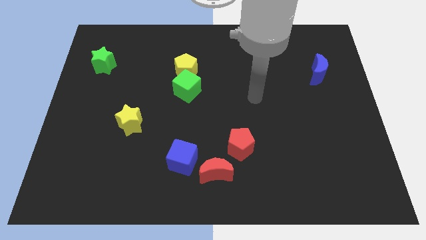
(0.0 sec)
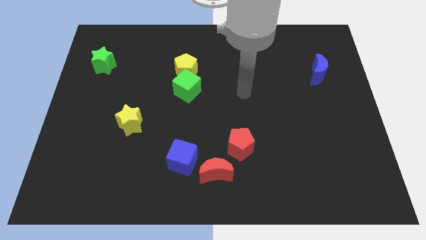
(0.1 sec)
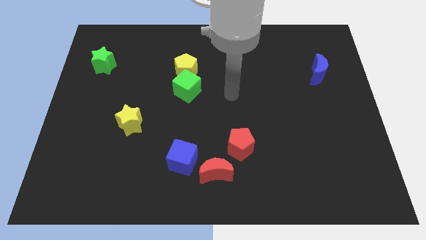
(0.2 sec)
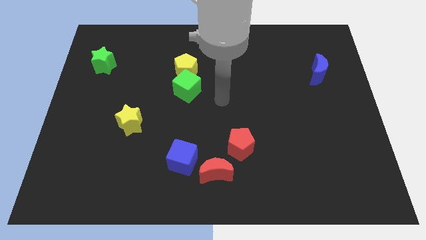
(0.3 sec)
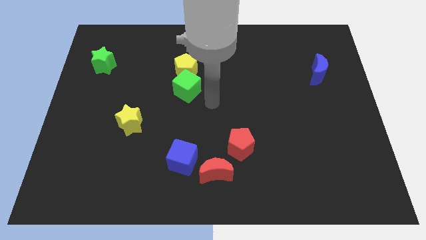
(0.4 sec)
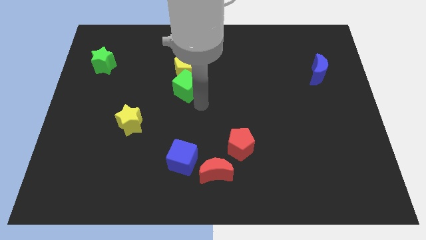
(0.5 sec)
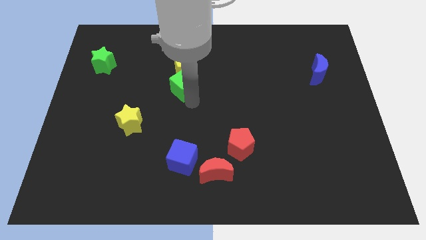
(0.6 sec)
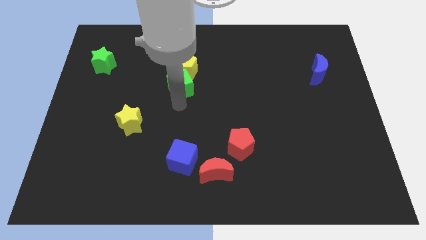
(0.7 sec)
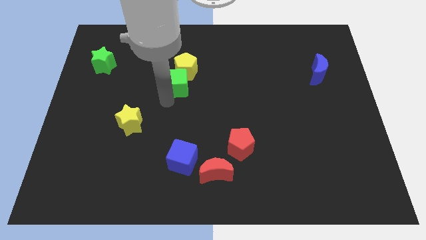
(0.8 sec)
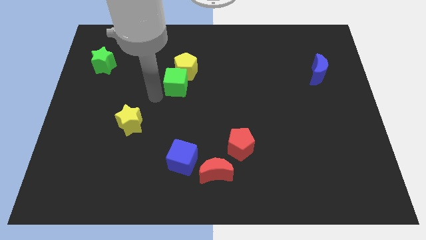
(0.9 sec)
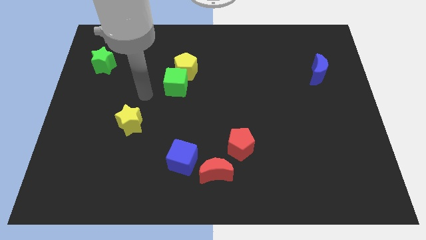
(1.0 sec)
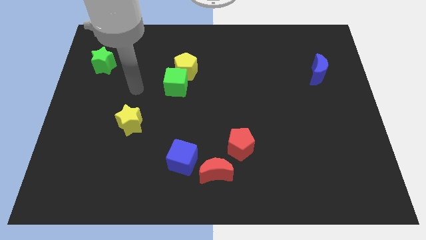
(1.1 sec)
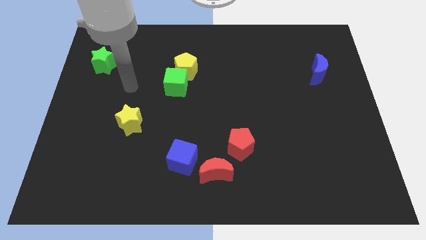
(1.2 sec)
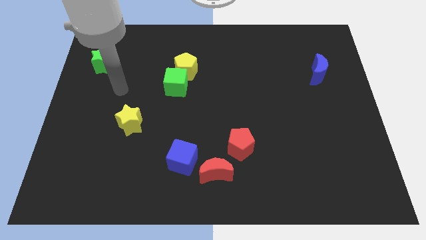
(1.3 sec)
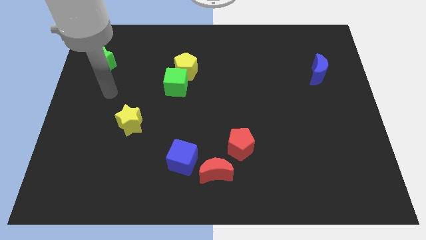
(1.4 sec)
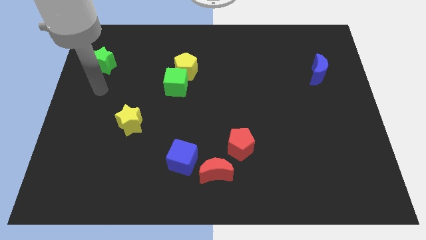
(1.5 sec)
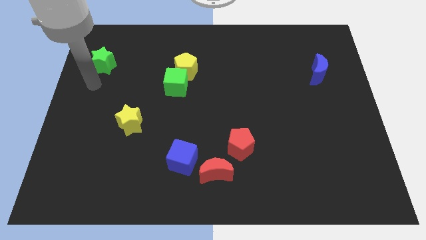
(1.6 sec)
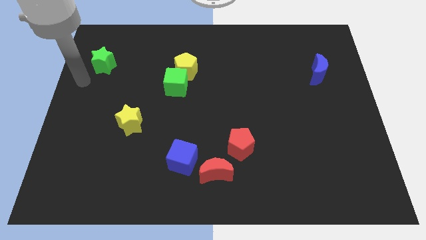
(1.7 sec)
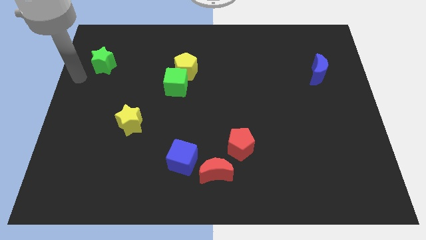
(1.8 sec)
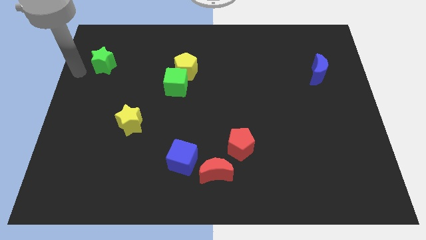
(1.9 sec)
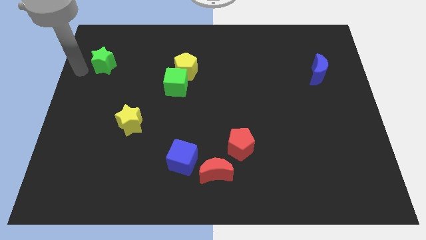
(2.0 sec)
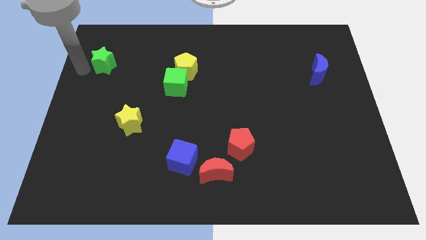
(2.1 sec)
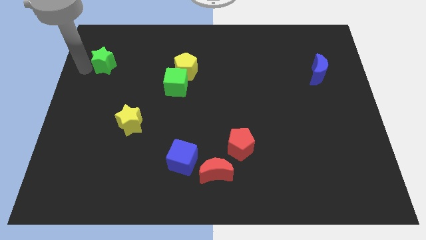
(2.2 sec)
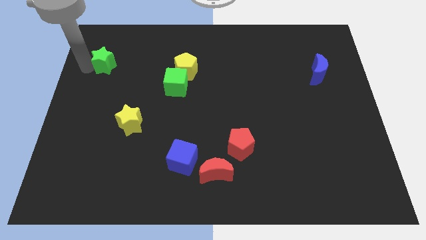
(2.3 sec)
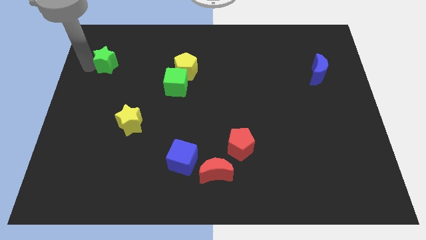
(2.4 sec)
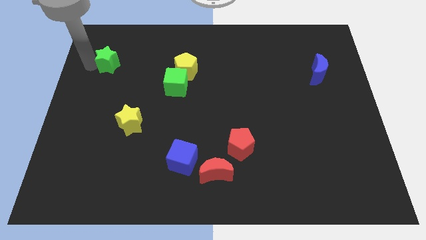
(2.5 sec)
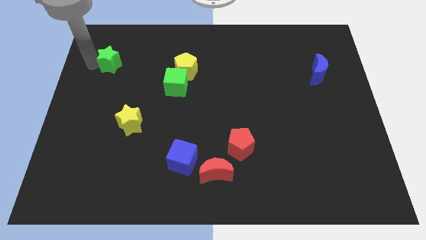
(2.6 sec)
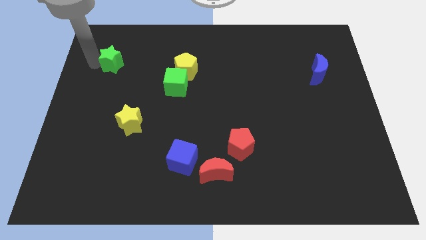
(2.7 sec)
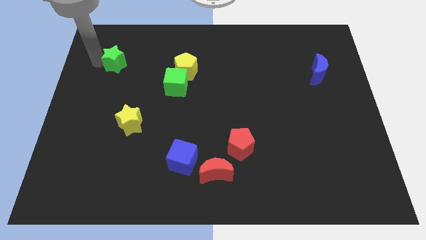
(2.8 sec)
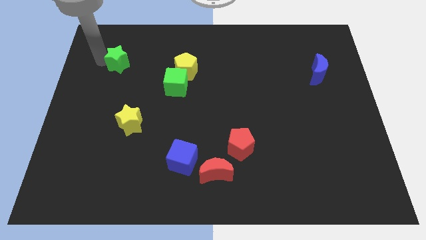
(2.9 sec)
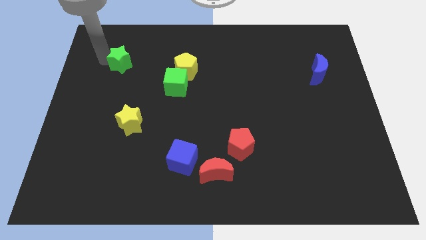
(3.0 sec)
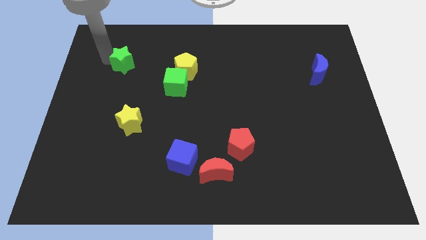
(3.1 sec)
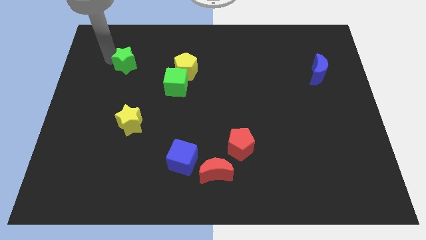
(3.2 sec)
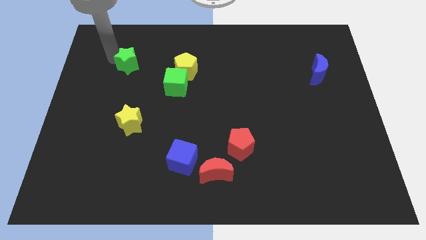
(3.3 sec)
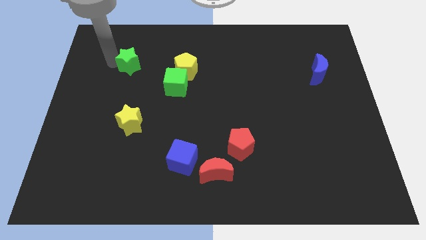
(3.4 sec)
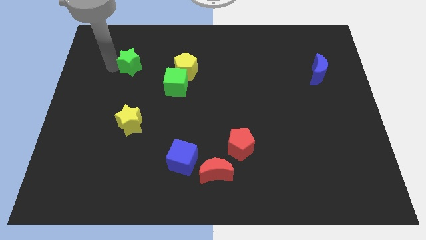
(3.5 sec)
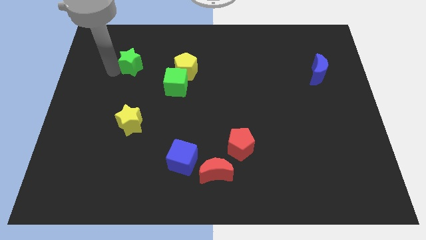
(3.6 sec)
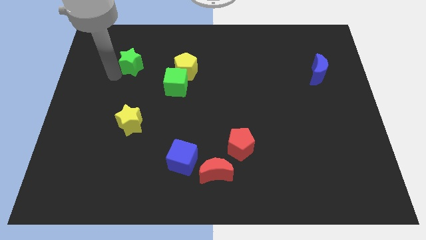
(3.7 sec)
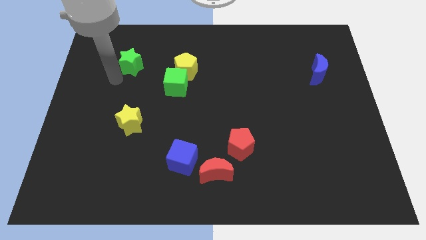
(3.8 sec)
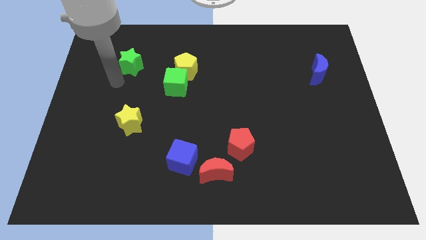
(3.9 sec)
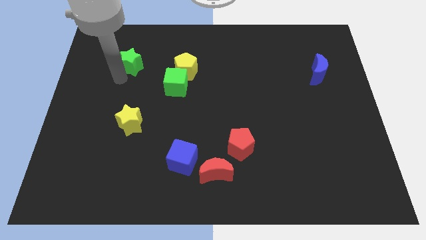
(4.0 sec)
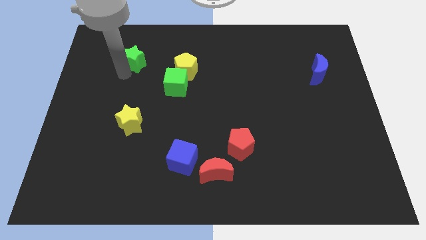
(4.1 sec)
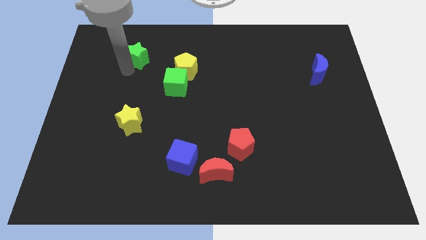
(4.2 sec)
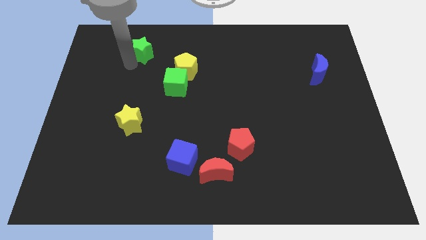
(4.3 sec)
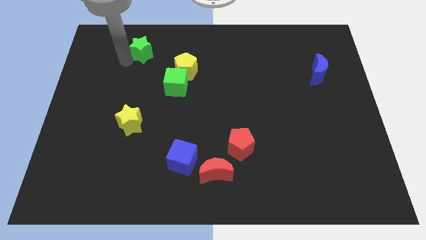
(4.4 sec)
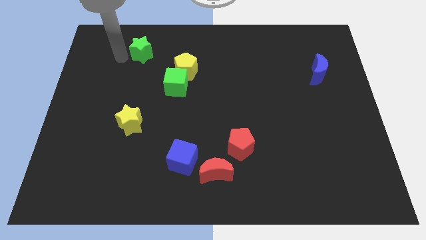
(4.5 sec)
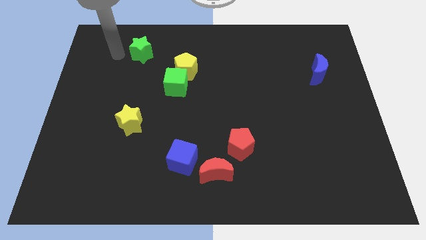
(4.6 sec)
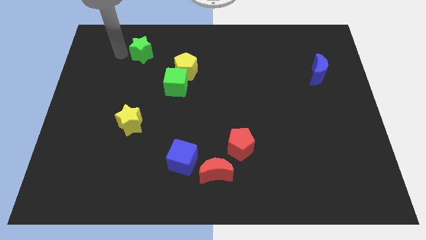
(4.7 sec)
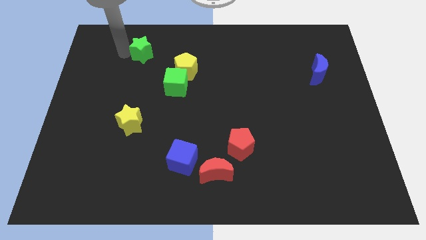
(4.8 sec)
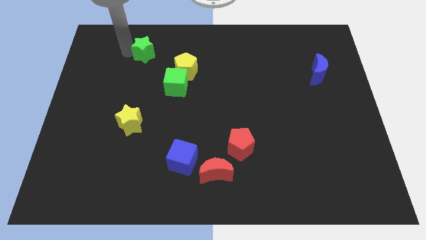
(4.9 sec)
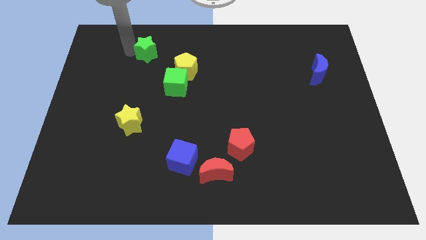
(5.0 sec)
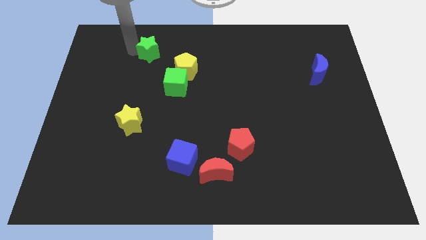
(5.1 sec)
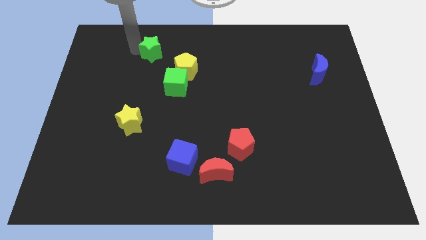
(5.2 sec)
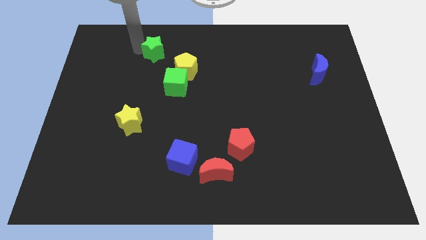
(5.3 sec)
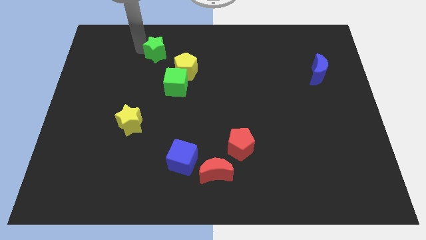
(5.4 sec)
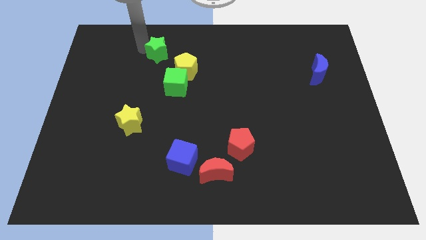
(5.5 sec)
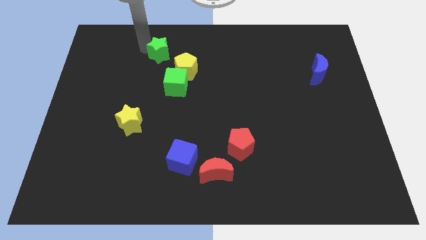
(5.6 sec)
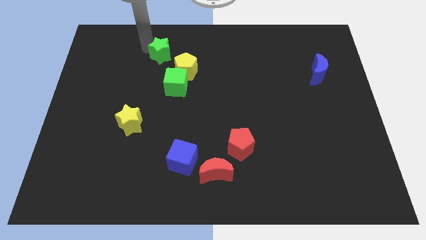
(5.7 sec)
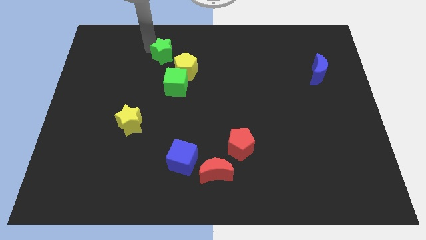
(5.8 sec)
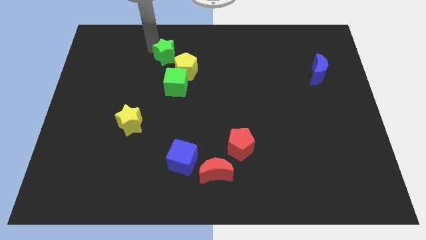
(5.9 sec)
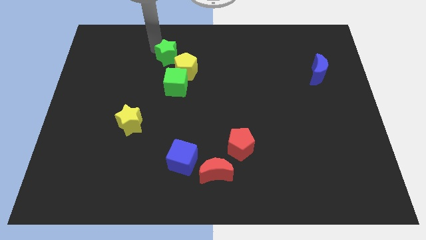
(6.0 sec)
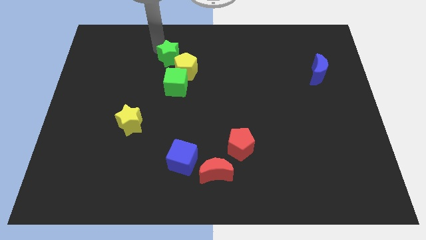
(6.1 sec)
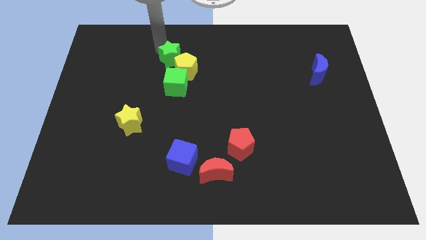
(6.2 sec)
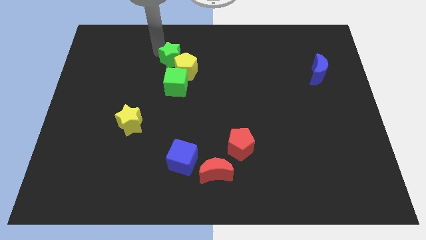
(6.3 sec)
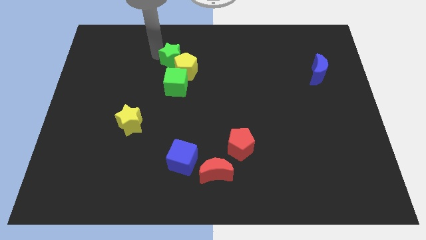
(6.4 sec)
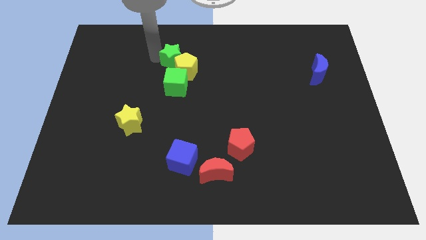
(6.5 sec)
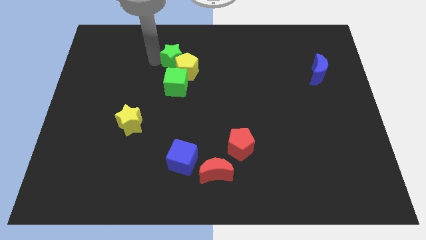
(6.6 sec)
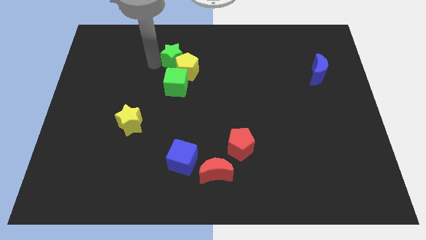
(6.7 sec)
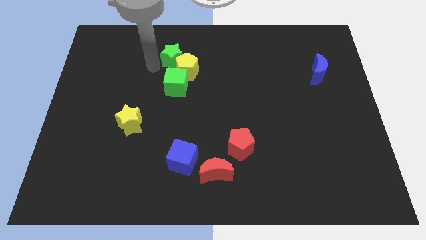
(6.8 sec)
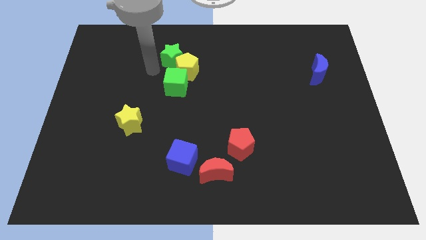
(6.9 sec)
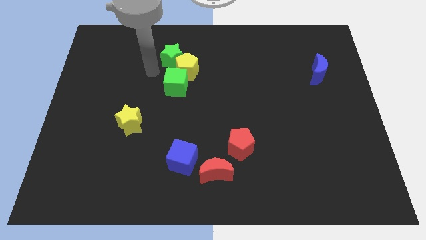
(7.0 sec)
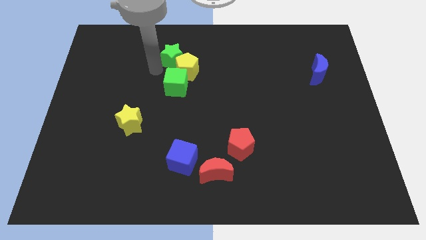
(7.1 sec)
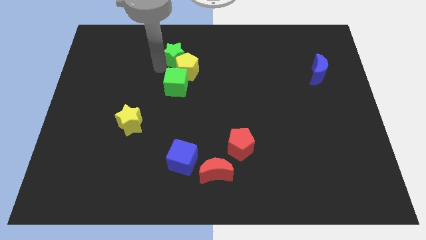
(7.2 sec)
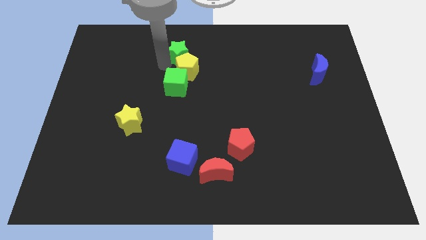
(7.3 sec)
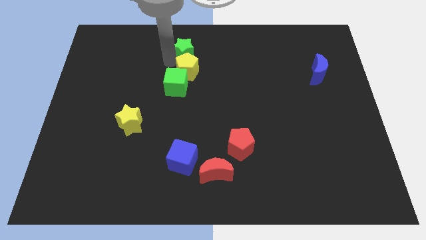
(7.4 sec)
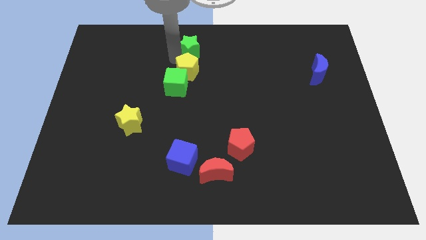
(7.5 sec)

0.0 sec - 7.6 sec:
move the green star to the top
